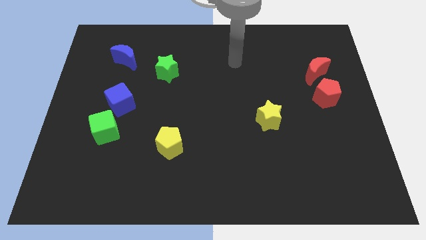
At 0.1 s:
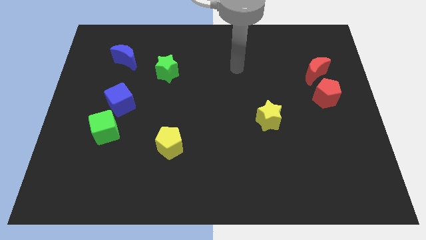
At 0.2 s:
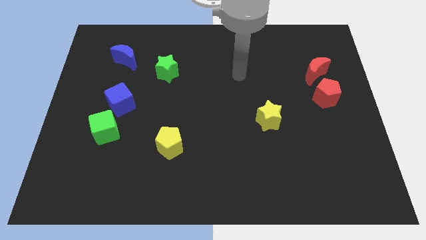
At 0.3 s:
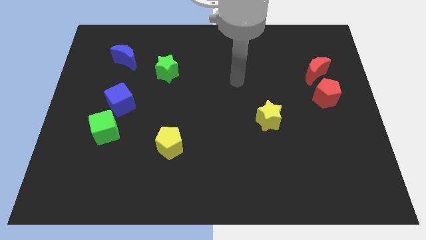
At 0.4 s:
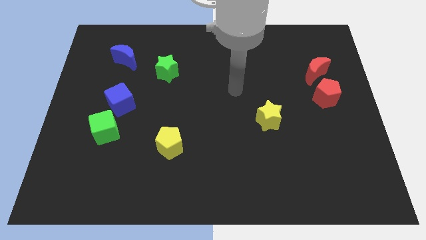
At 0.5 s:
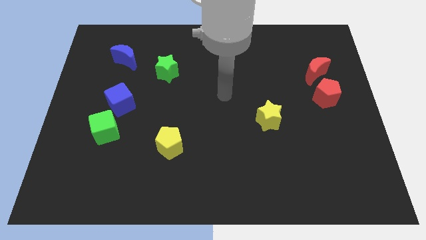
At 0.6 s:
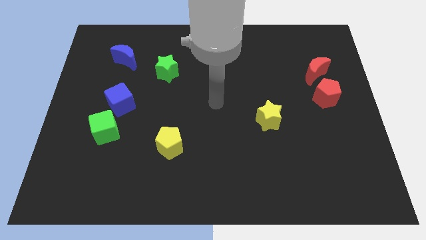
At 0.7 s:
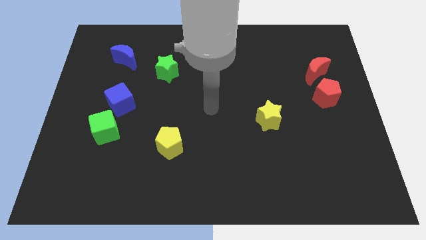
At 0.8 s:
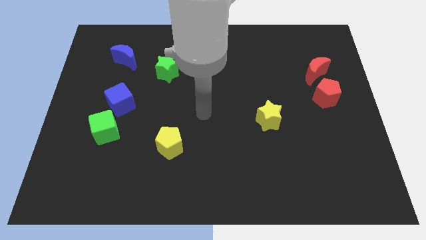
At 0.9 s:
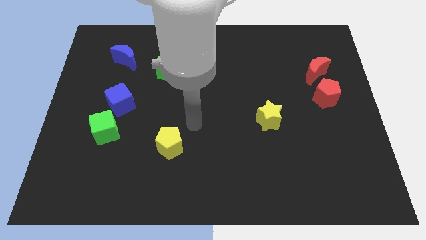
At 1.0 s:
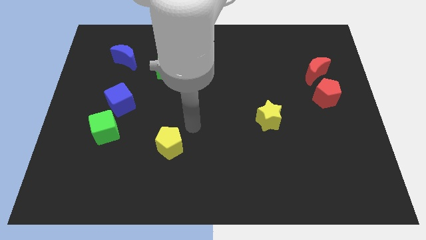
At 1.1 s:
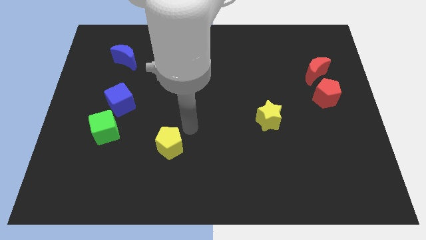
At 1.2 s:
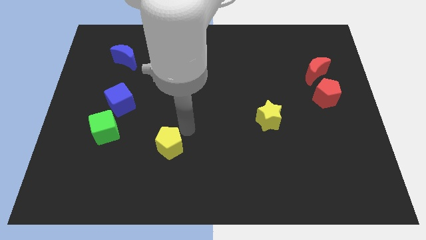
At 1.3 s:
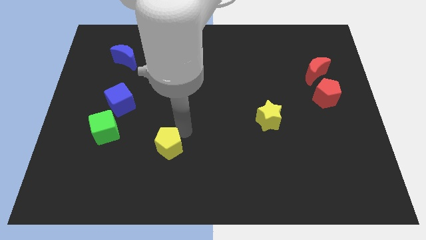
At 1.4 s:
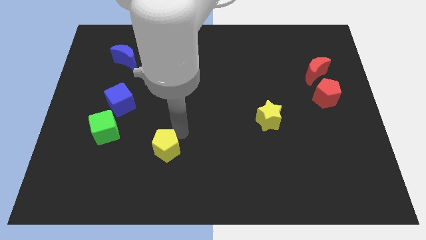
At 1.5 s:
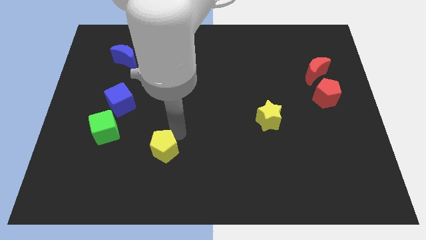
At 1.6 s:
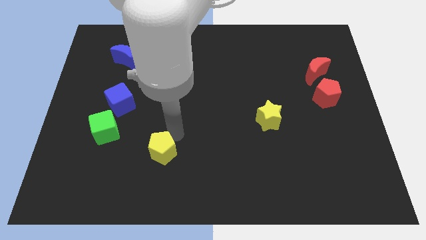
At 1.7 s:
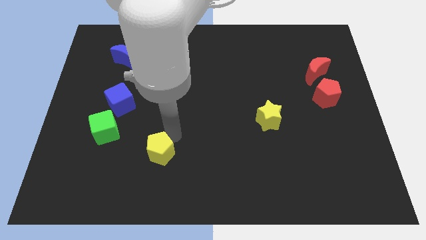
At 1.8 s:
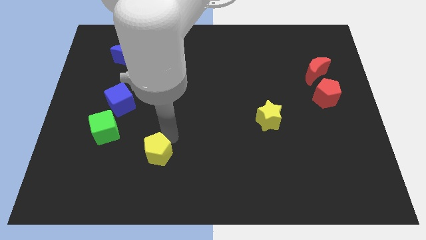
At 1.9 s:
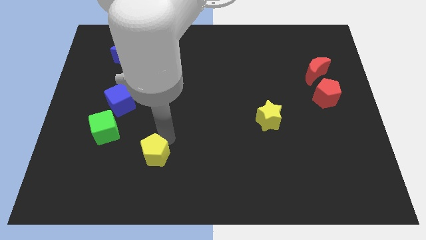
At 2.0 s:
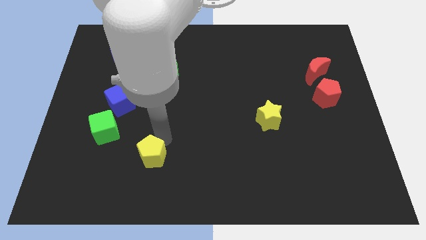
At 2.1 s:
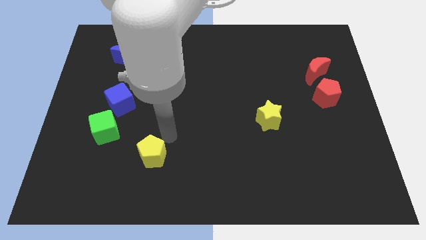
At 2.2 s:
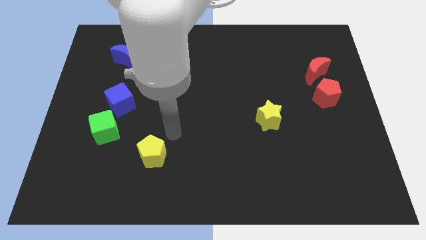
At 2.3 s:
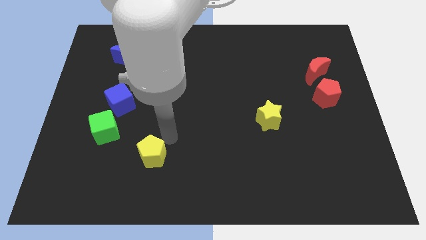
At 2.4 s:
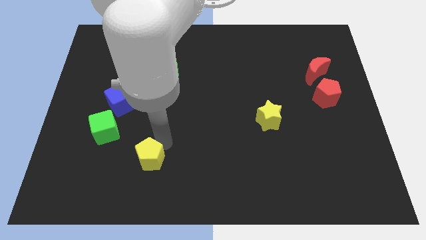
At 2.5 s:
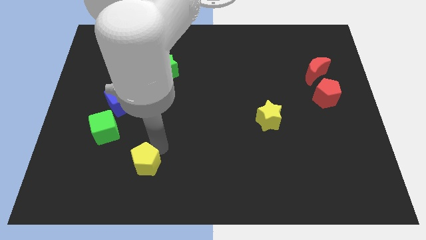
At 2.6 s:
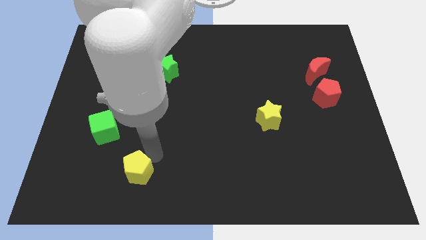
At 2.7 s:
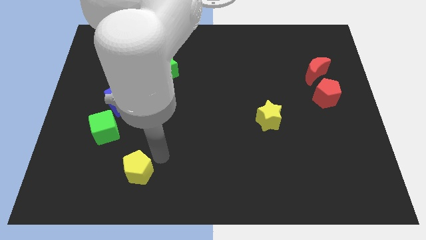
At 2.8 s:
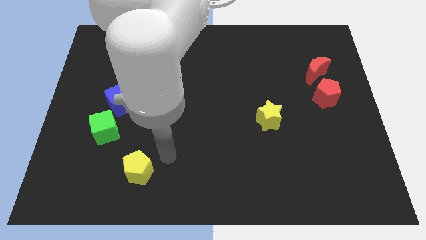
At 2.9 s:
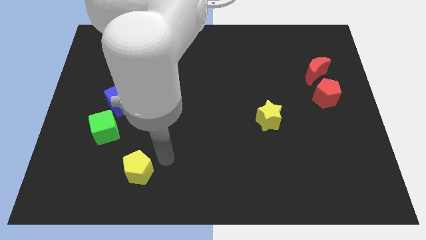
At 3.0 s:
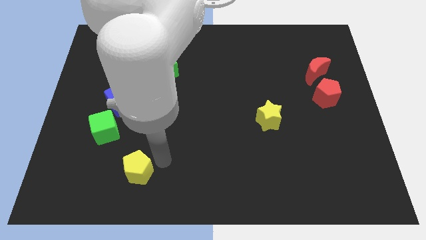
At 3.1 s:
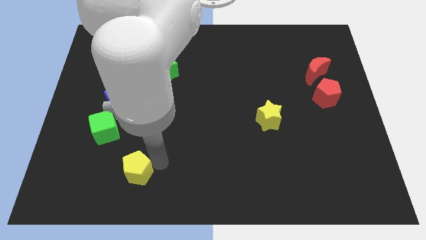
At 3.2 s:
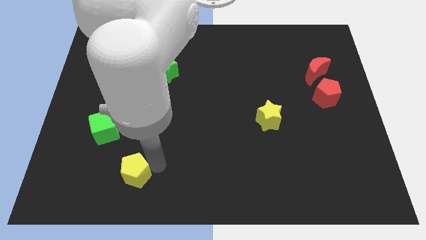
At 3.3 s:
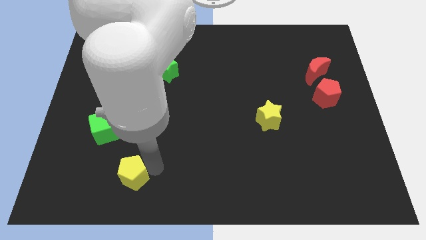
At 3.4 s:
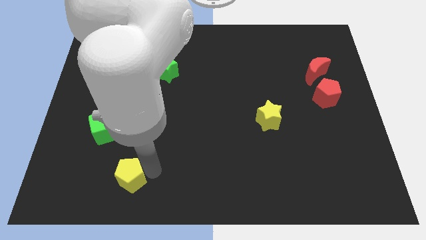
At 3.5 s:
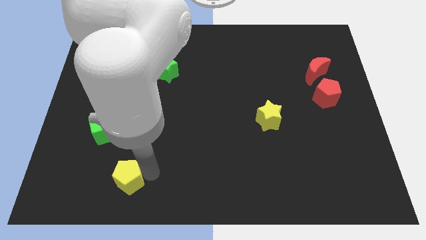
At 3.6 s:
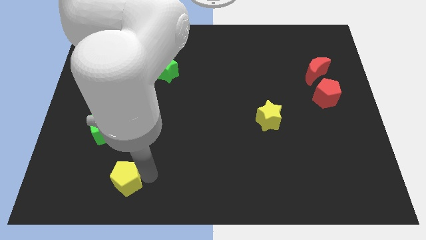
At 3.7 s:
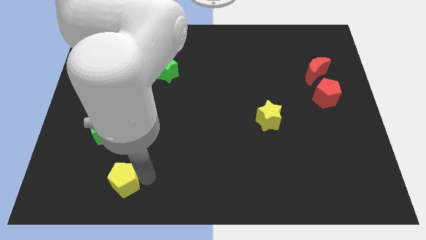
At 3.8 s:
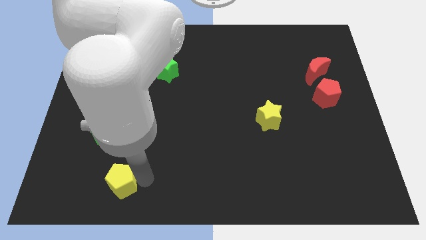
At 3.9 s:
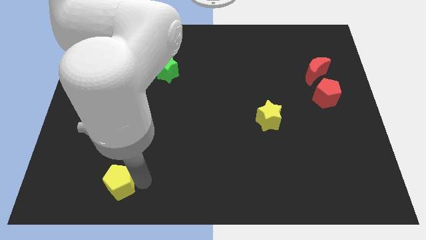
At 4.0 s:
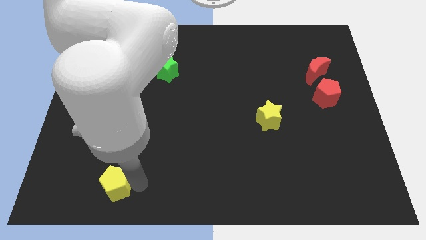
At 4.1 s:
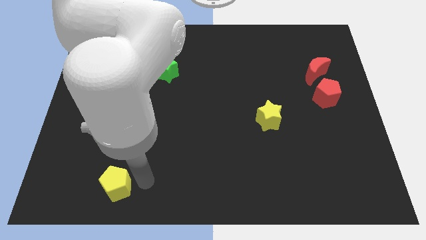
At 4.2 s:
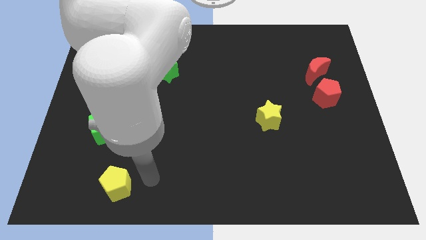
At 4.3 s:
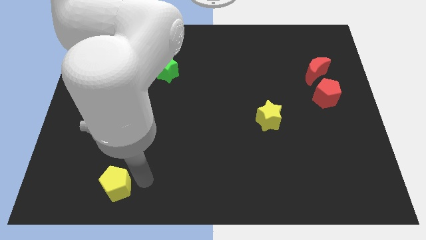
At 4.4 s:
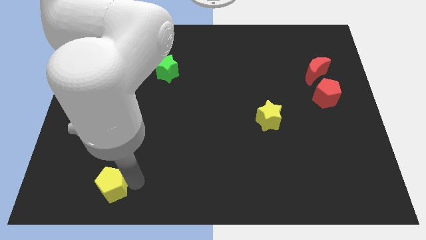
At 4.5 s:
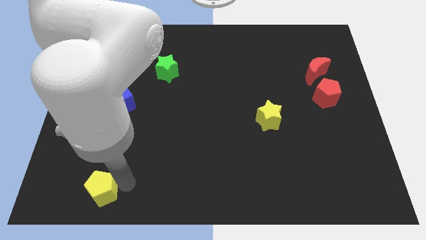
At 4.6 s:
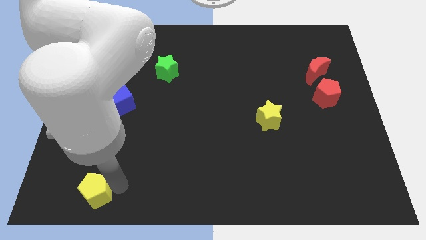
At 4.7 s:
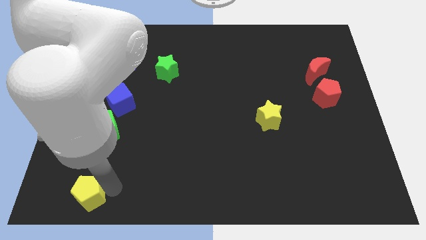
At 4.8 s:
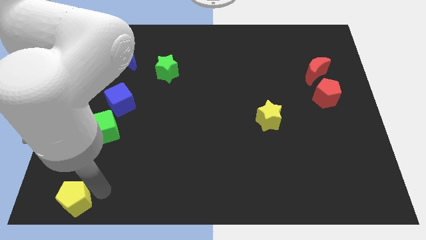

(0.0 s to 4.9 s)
push the yellow pentagon to the bottom left

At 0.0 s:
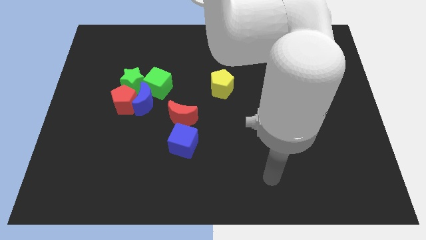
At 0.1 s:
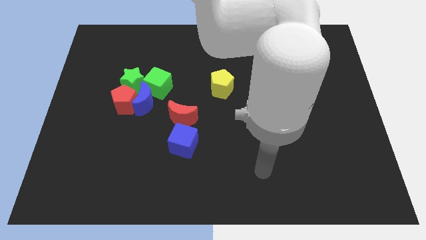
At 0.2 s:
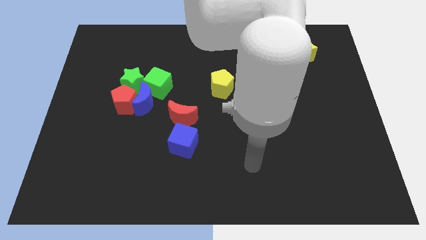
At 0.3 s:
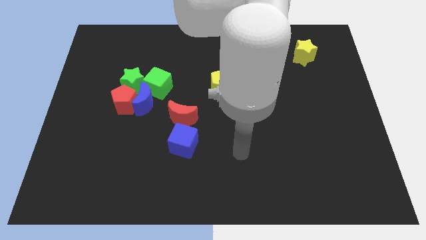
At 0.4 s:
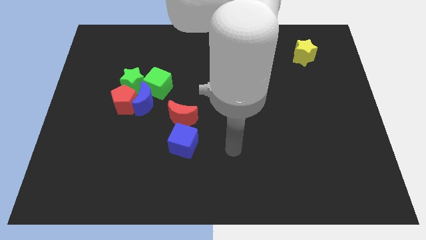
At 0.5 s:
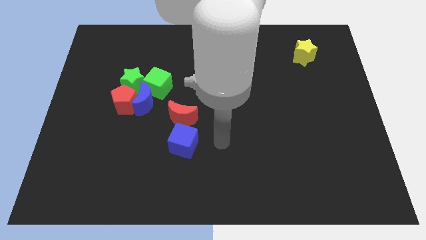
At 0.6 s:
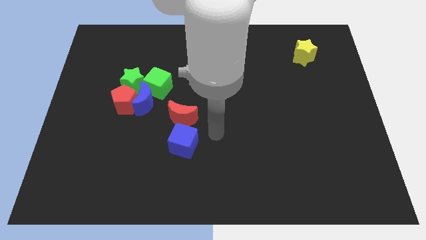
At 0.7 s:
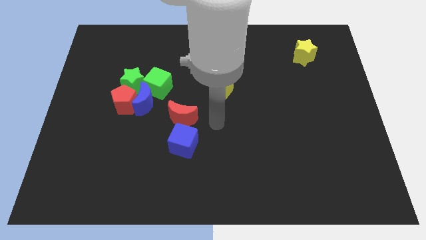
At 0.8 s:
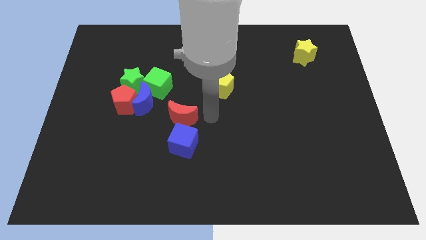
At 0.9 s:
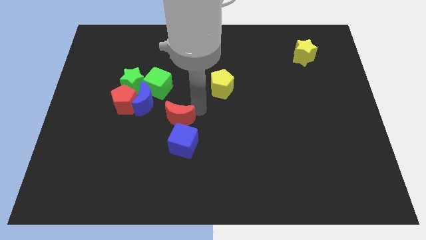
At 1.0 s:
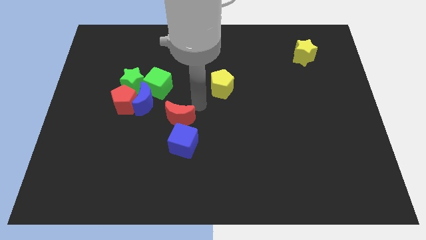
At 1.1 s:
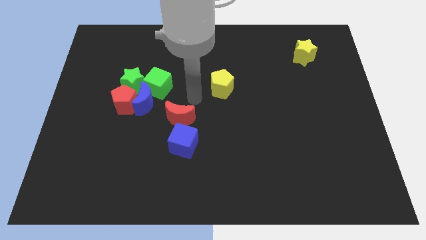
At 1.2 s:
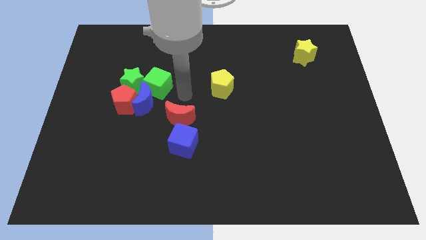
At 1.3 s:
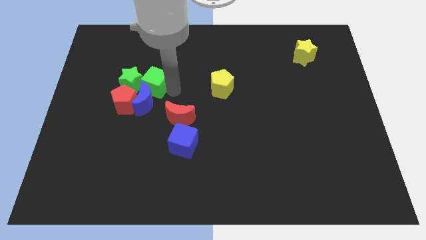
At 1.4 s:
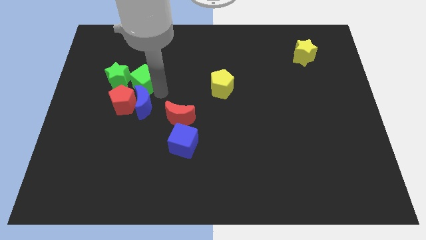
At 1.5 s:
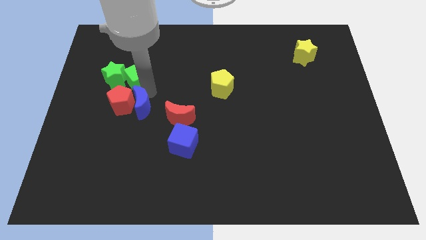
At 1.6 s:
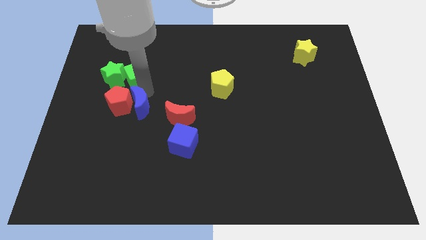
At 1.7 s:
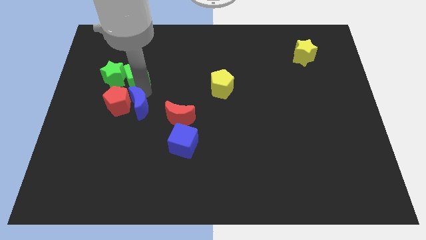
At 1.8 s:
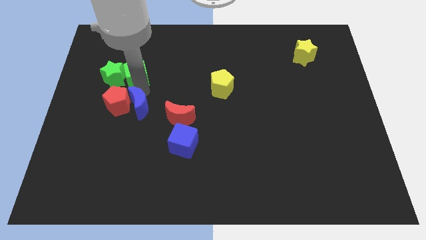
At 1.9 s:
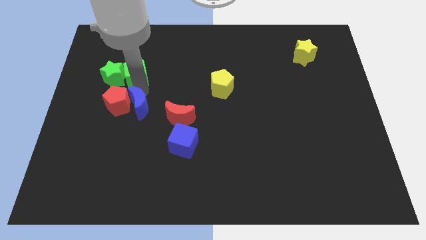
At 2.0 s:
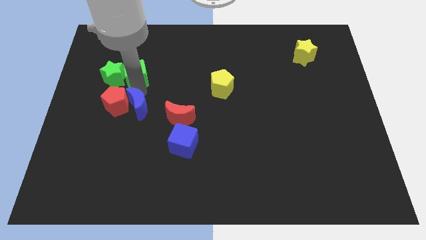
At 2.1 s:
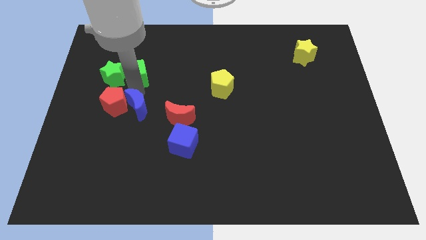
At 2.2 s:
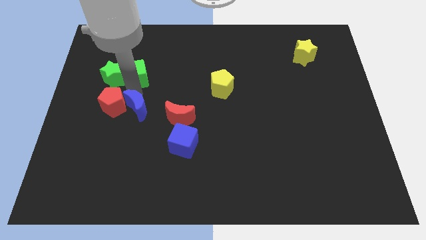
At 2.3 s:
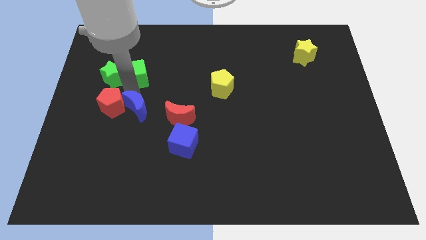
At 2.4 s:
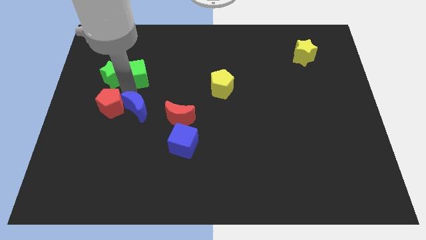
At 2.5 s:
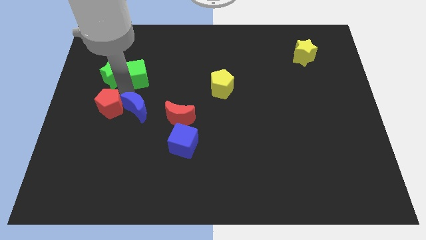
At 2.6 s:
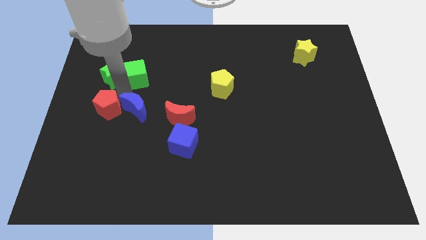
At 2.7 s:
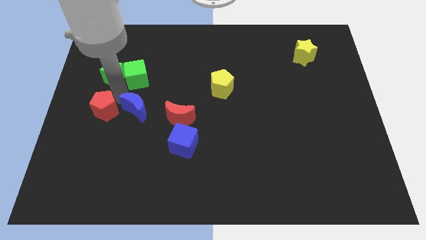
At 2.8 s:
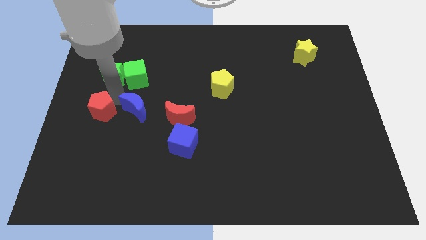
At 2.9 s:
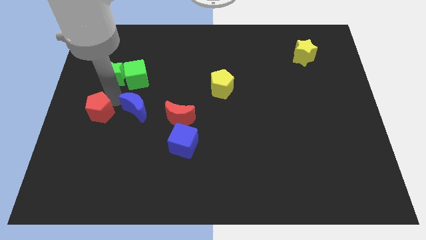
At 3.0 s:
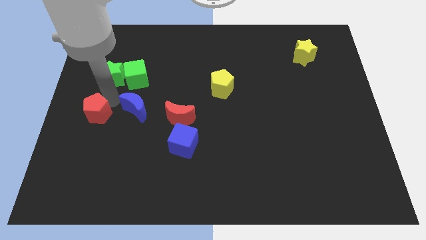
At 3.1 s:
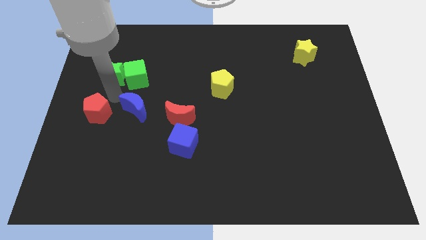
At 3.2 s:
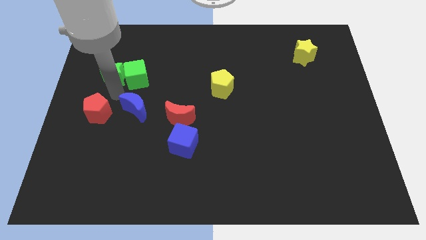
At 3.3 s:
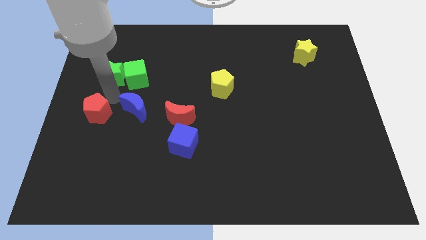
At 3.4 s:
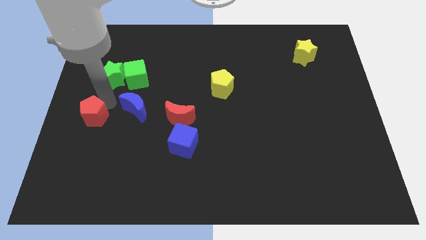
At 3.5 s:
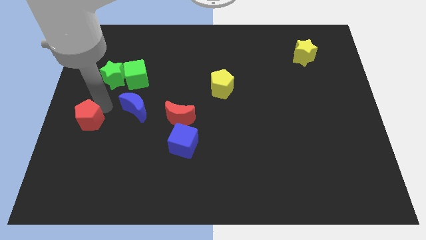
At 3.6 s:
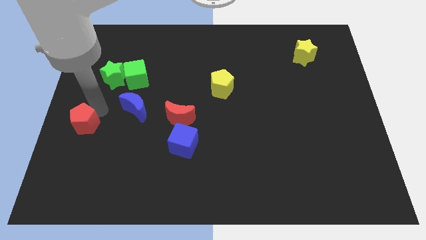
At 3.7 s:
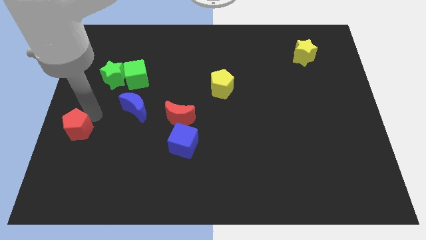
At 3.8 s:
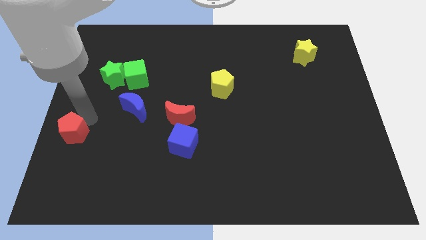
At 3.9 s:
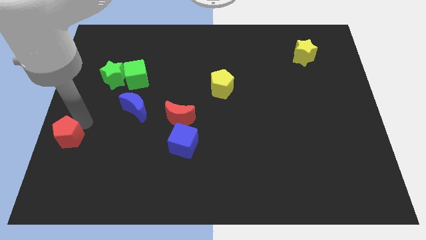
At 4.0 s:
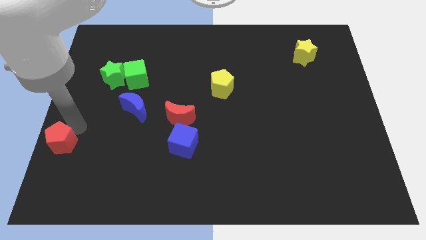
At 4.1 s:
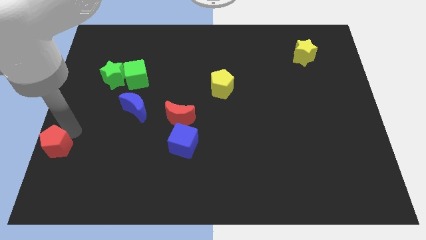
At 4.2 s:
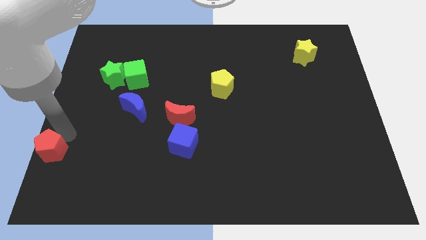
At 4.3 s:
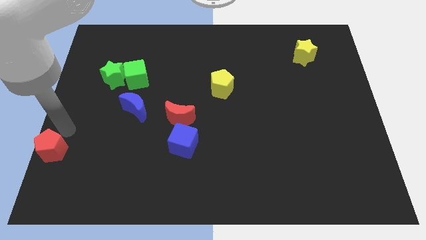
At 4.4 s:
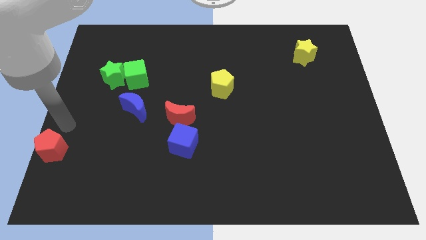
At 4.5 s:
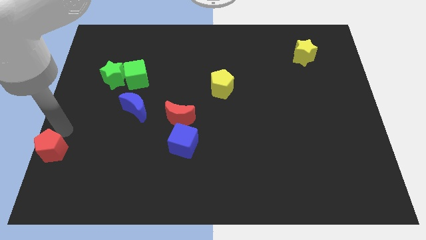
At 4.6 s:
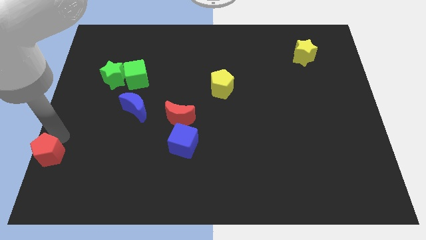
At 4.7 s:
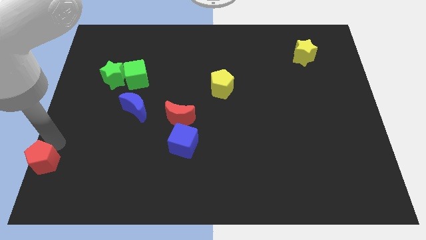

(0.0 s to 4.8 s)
move the red pentagon to the bottom left
